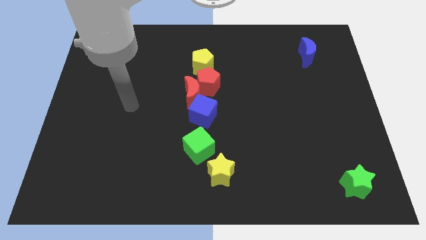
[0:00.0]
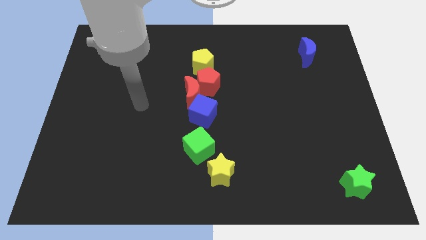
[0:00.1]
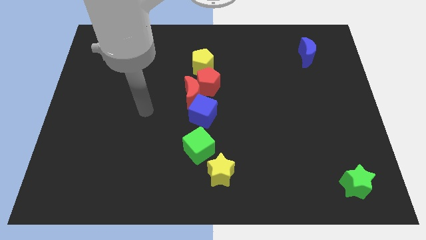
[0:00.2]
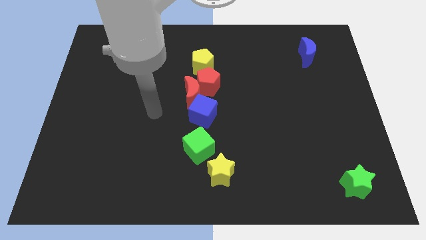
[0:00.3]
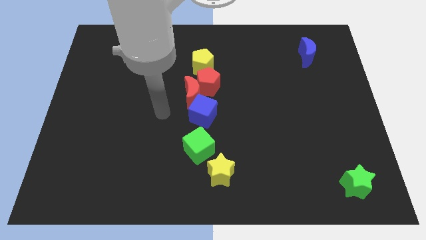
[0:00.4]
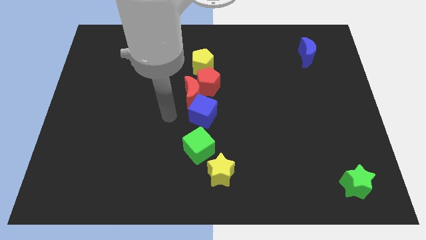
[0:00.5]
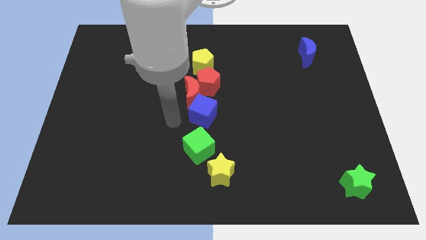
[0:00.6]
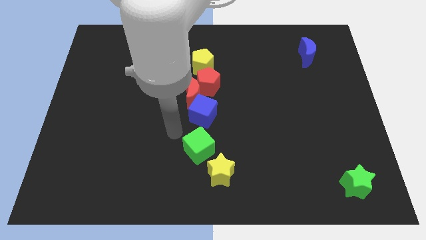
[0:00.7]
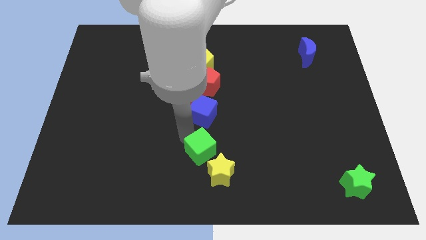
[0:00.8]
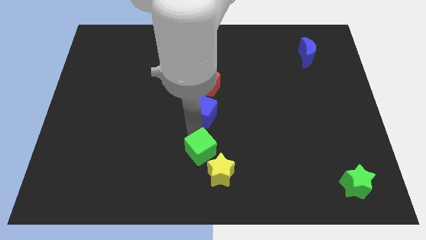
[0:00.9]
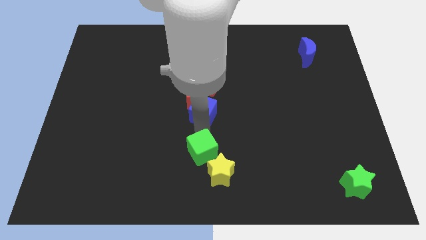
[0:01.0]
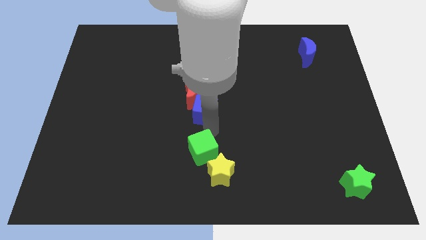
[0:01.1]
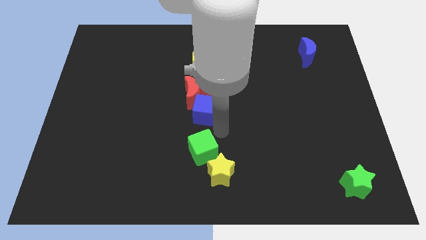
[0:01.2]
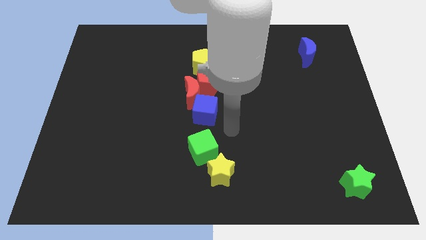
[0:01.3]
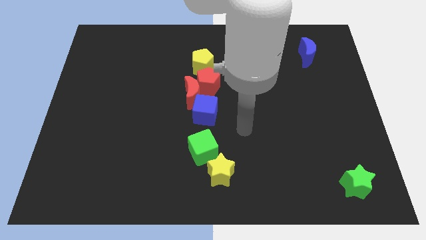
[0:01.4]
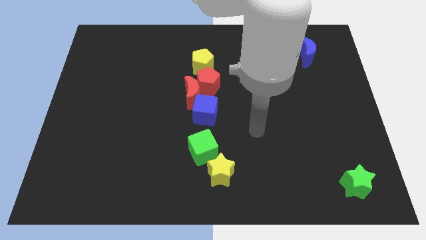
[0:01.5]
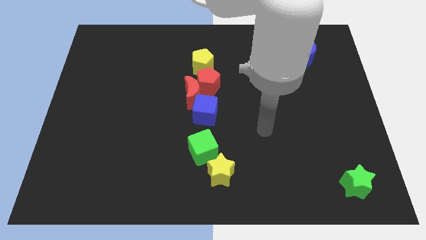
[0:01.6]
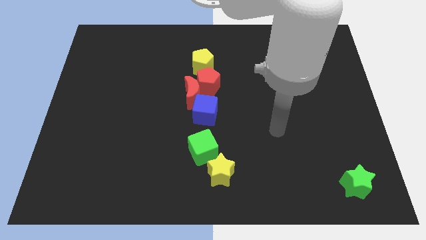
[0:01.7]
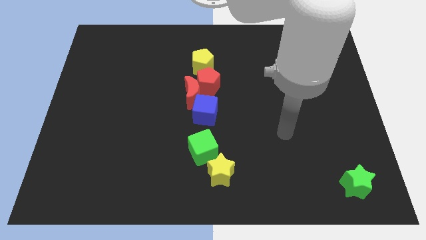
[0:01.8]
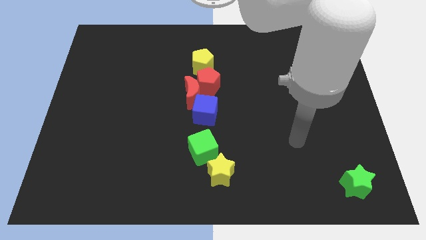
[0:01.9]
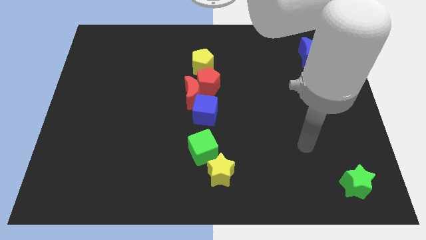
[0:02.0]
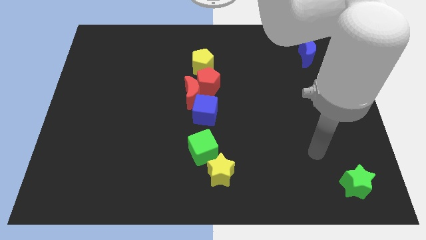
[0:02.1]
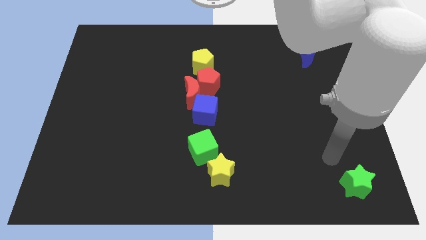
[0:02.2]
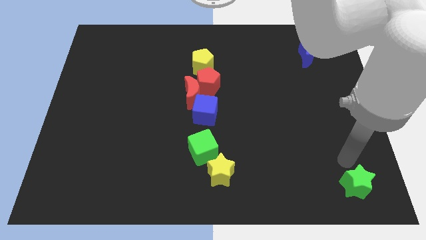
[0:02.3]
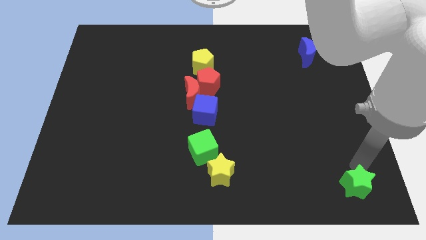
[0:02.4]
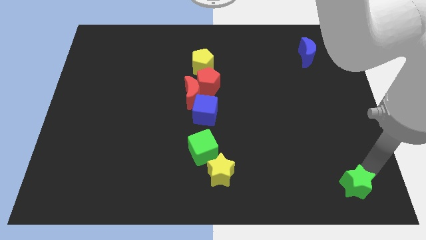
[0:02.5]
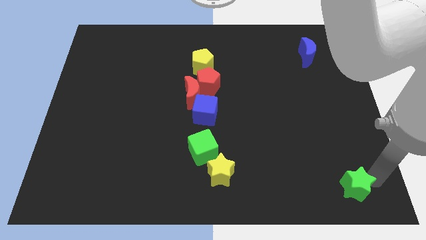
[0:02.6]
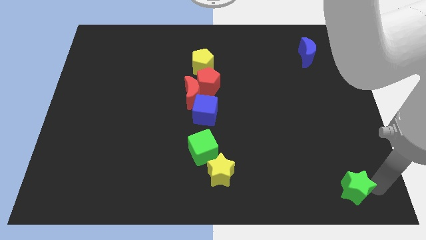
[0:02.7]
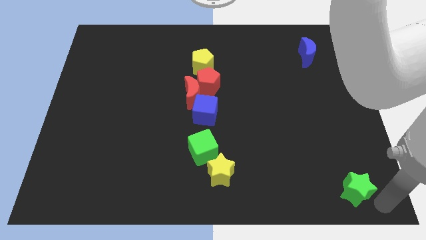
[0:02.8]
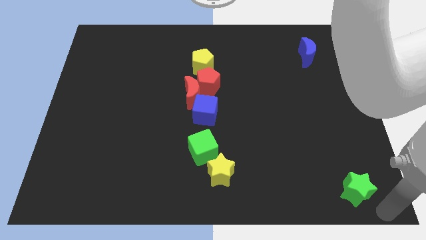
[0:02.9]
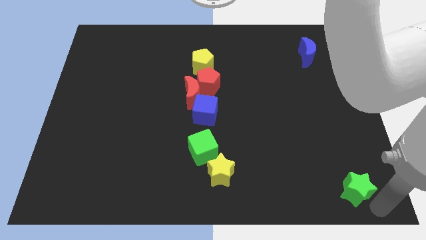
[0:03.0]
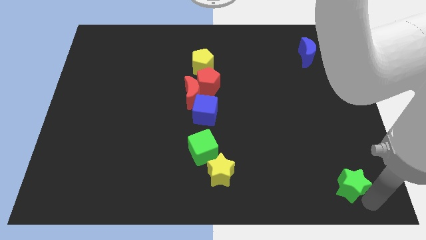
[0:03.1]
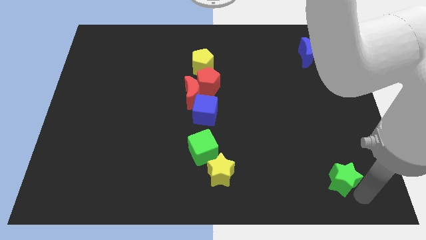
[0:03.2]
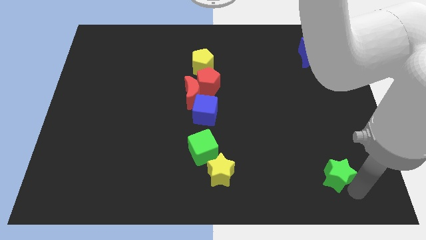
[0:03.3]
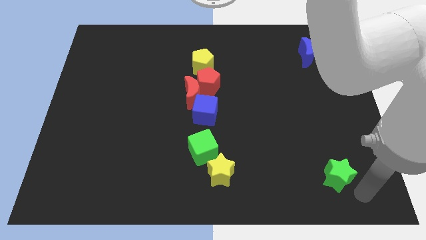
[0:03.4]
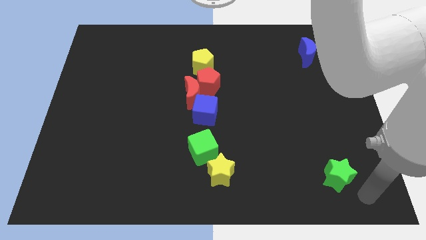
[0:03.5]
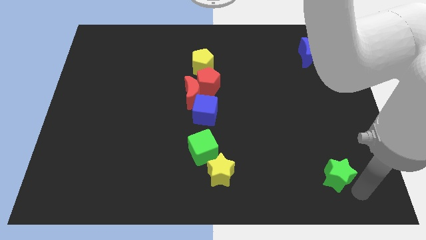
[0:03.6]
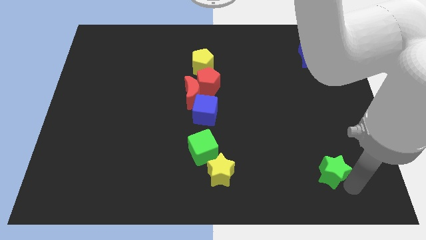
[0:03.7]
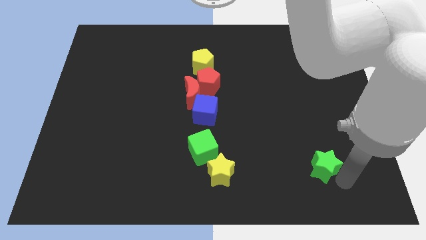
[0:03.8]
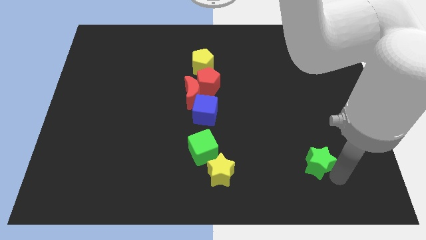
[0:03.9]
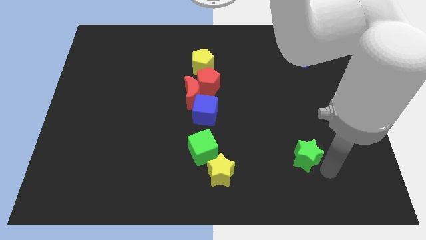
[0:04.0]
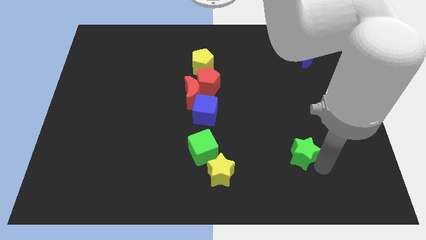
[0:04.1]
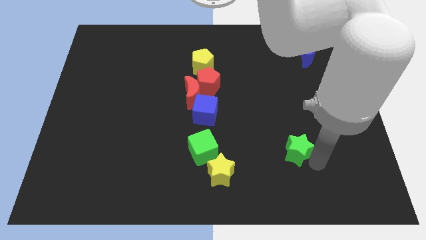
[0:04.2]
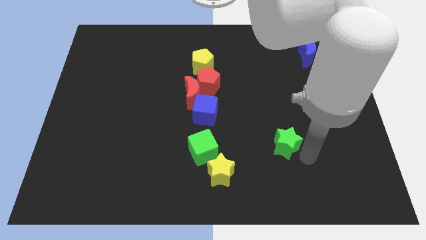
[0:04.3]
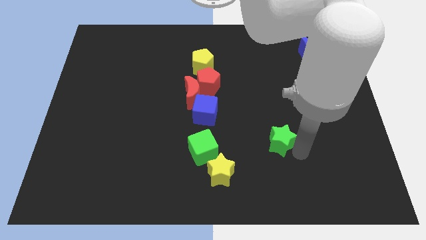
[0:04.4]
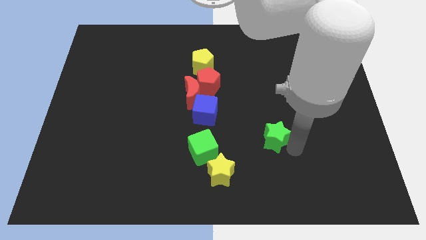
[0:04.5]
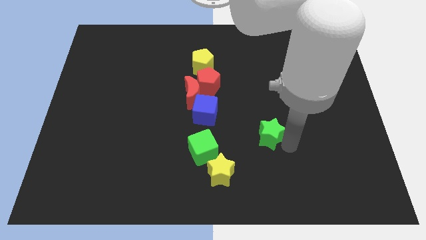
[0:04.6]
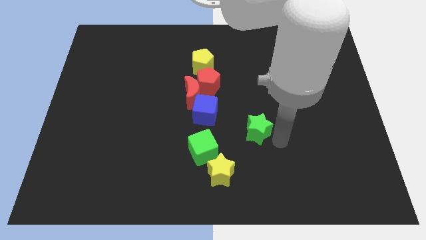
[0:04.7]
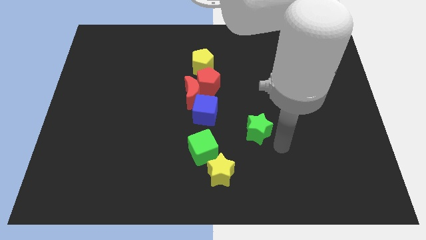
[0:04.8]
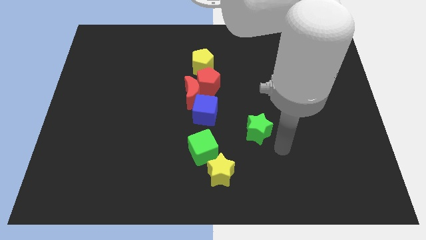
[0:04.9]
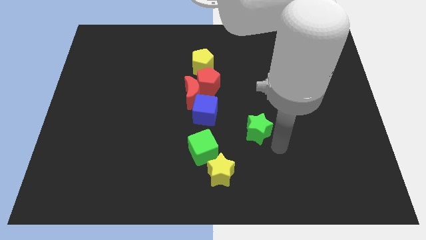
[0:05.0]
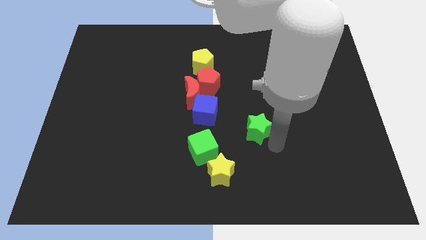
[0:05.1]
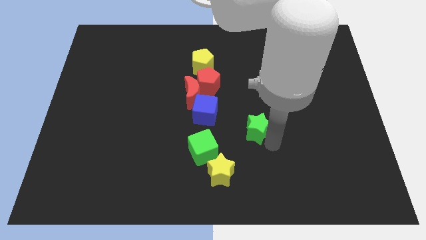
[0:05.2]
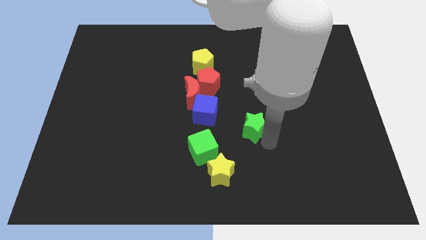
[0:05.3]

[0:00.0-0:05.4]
put the green star to the middle of the board
